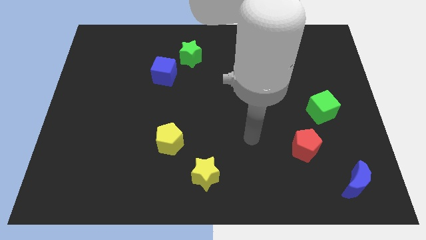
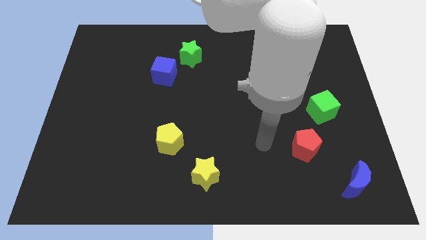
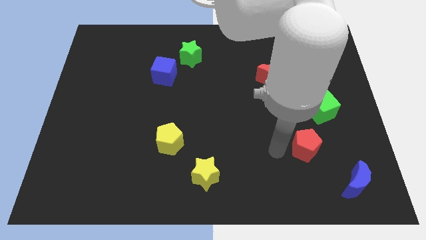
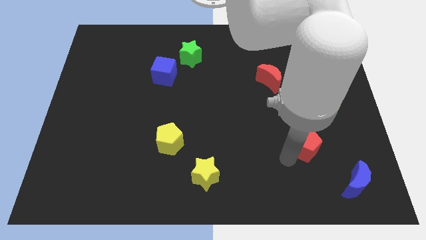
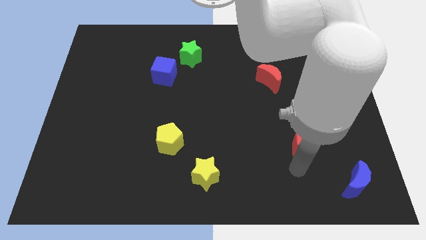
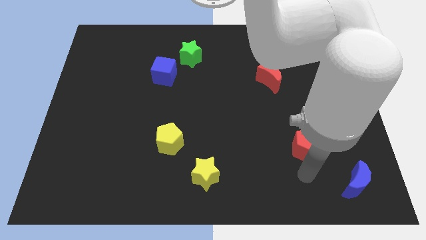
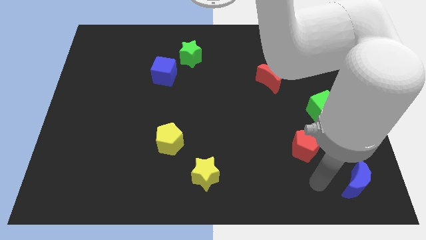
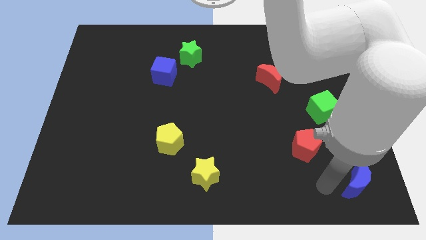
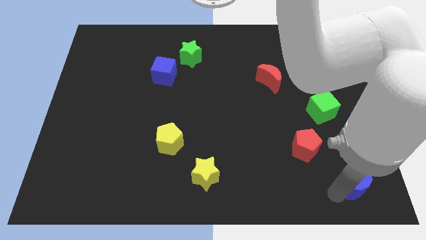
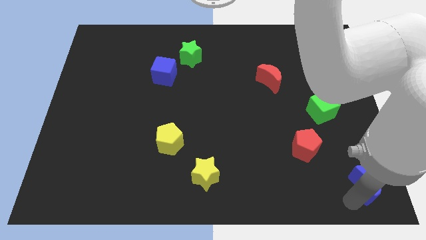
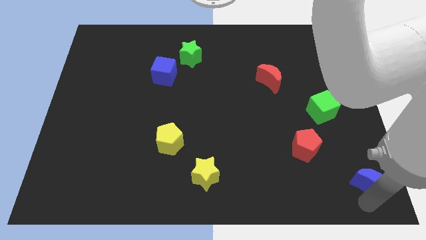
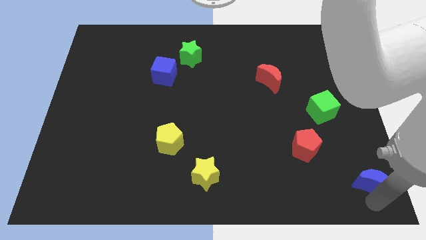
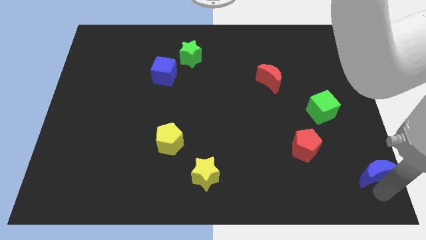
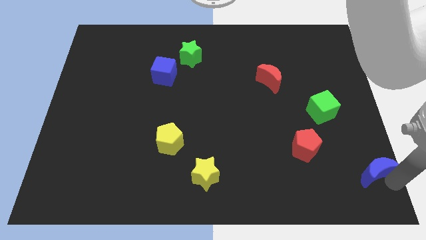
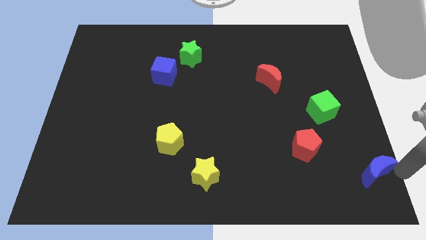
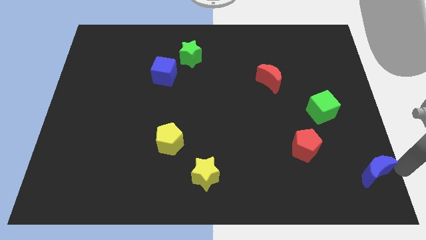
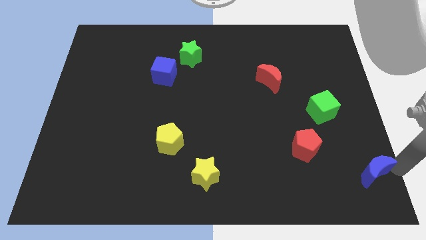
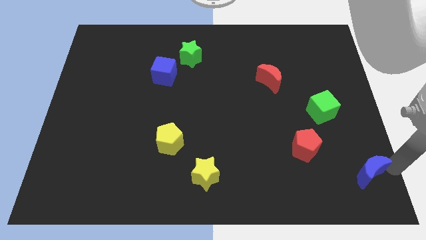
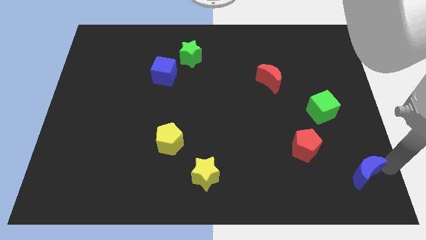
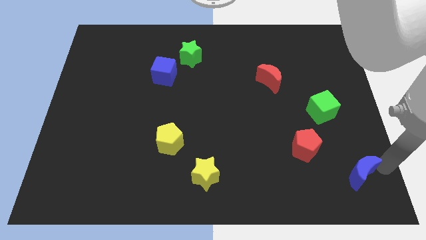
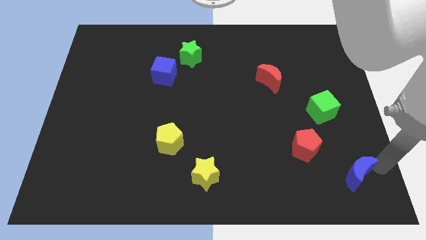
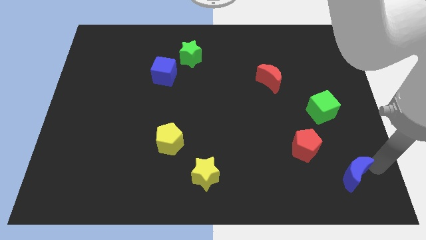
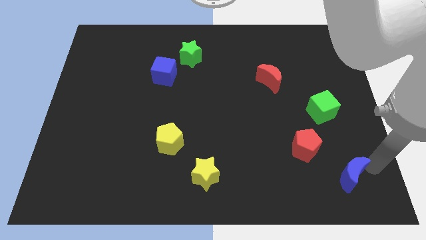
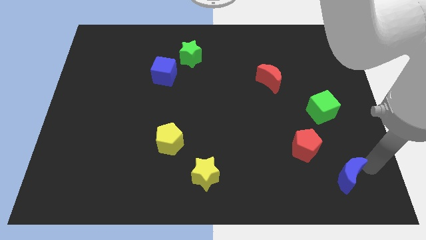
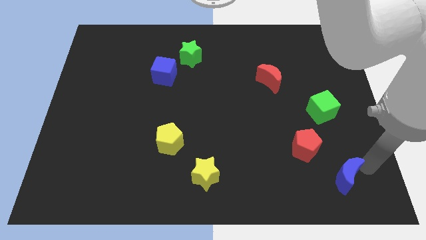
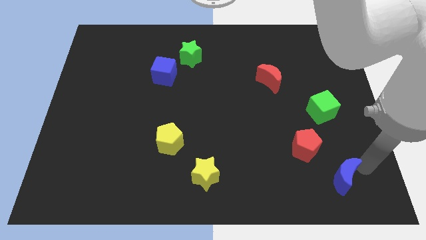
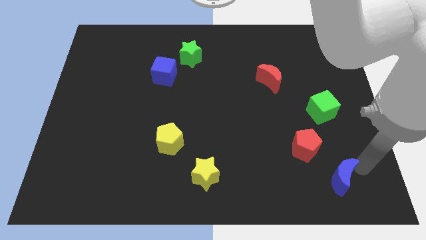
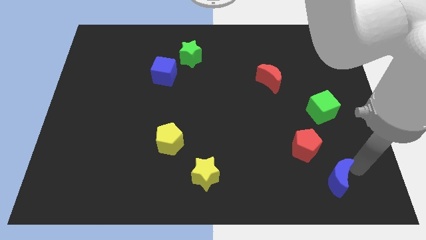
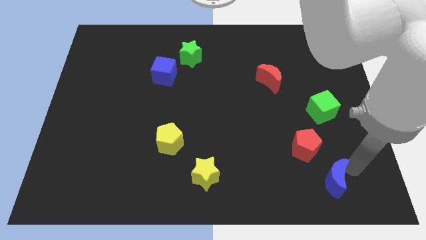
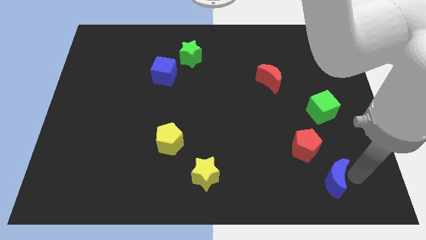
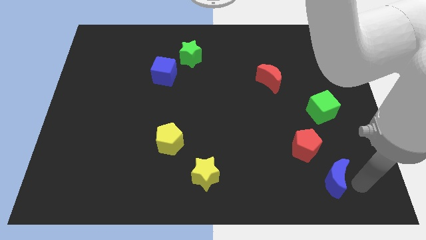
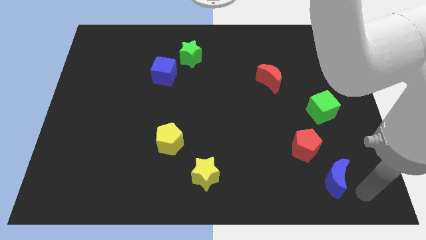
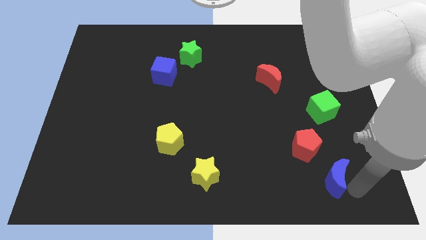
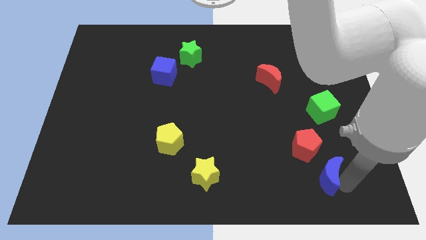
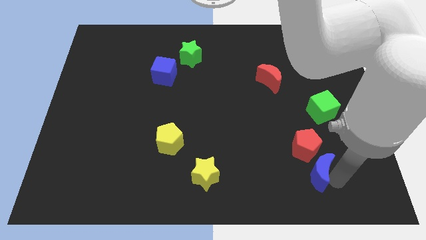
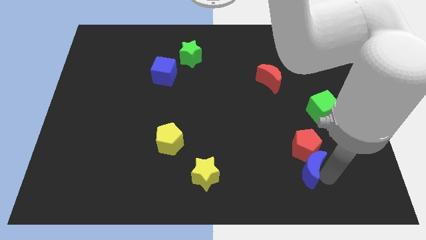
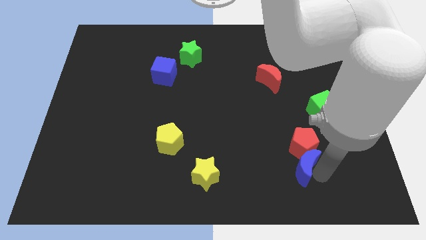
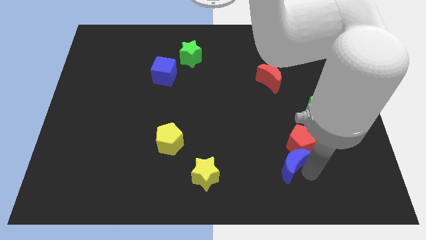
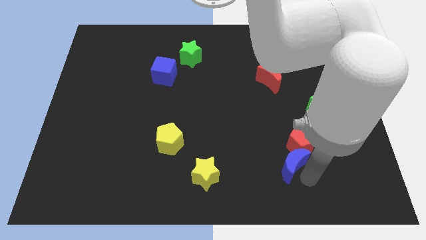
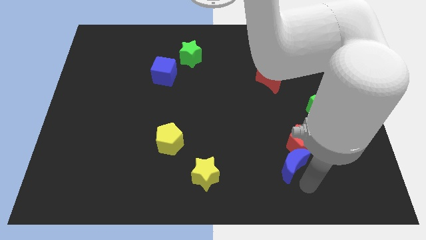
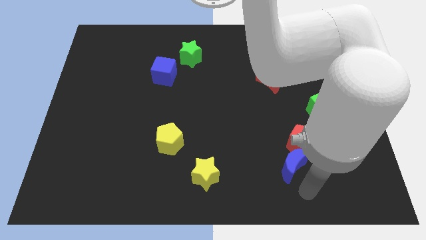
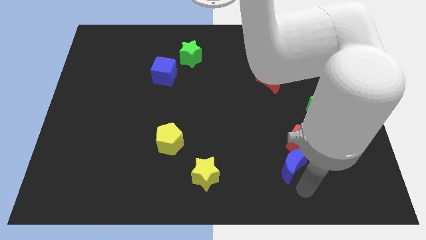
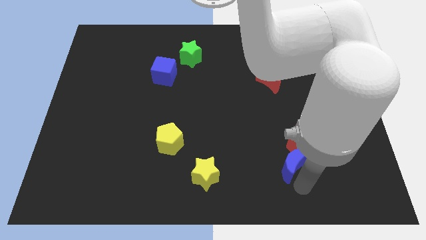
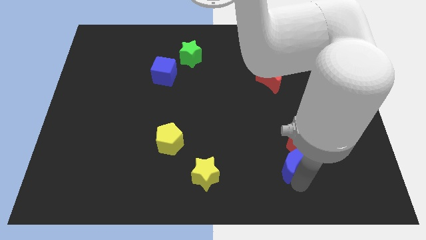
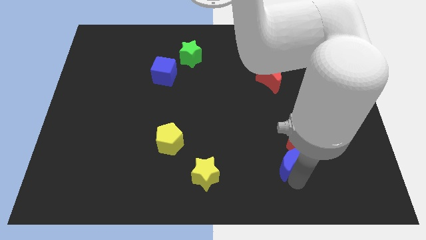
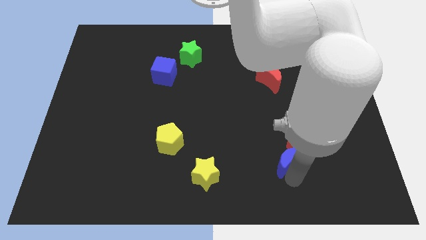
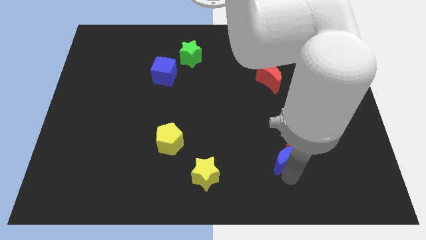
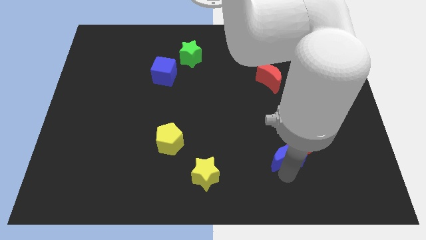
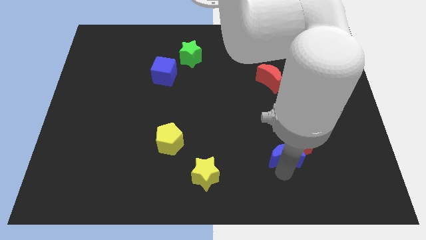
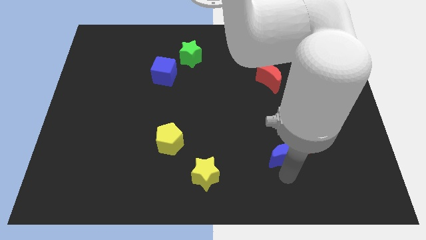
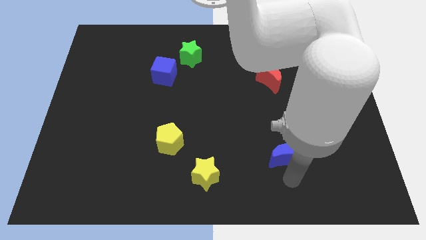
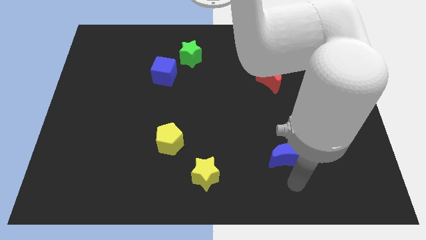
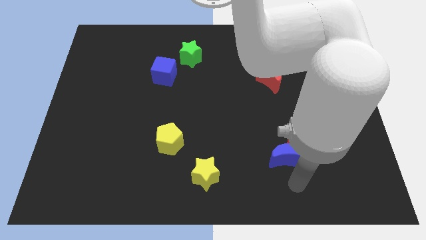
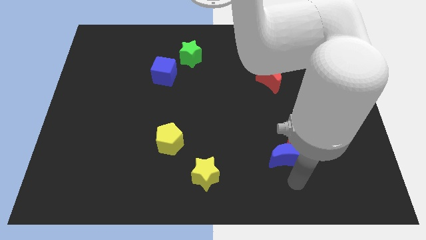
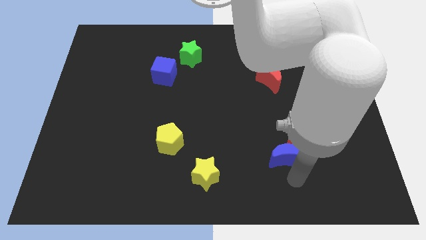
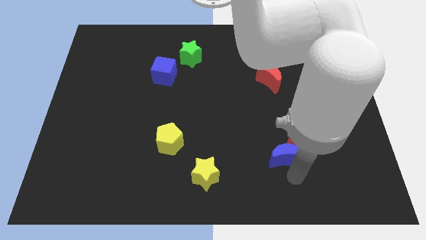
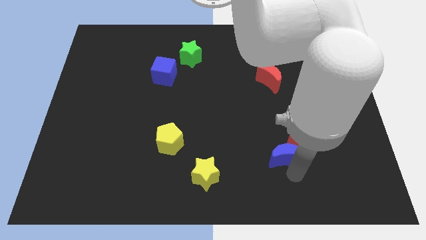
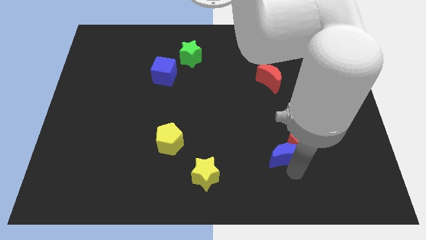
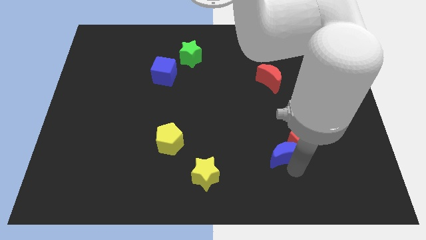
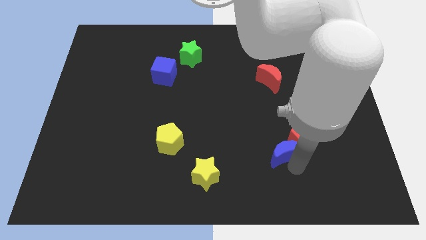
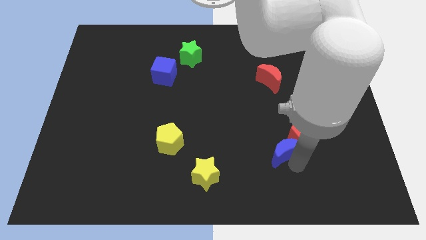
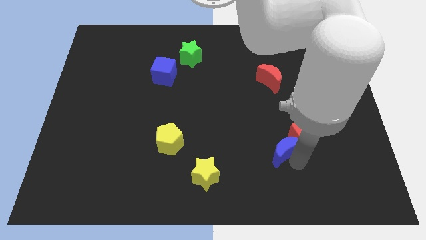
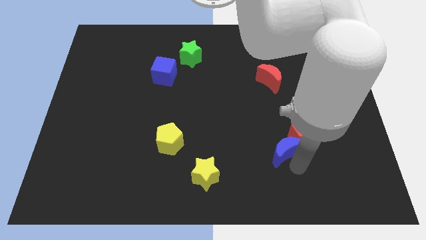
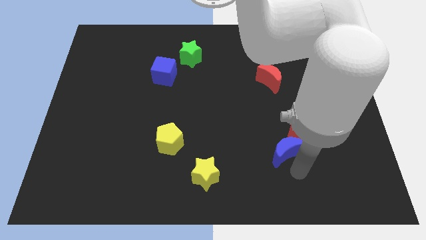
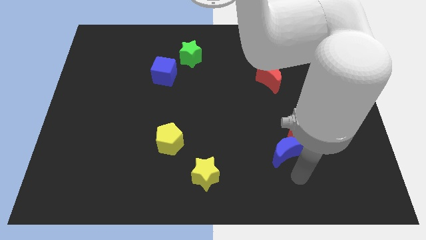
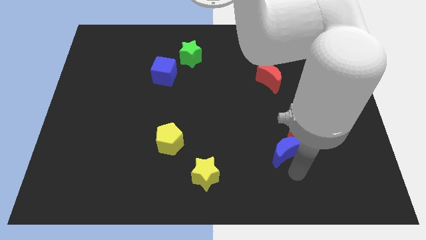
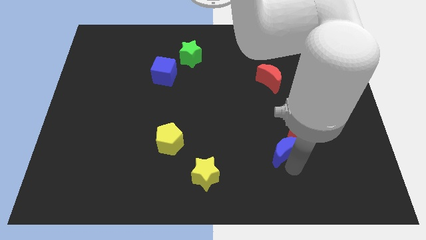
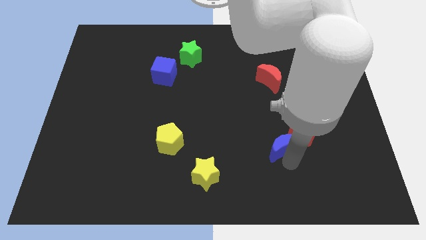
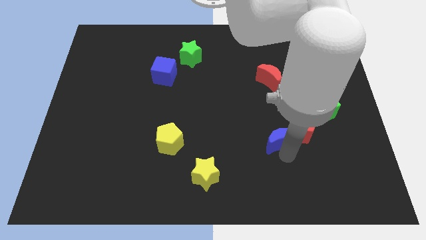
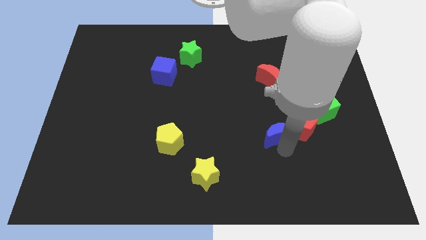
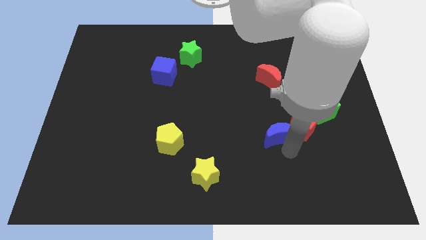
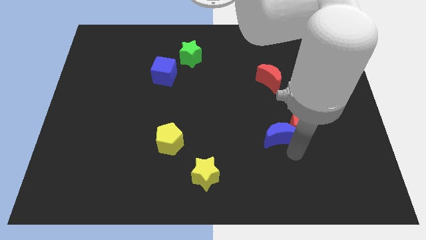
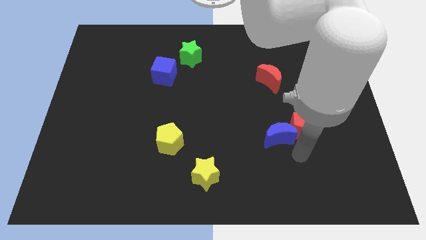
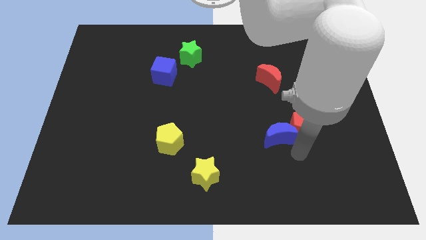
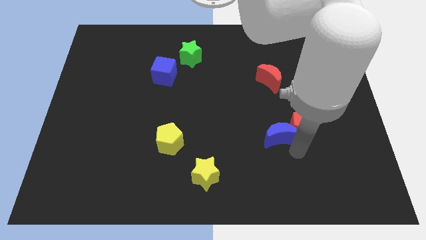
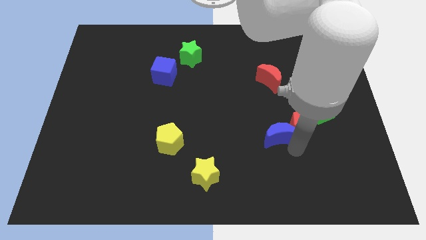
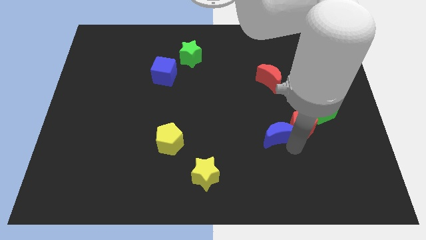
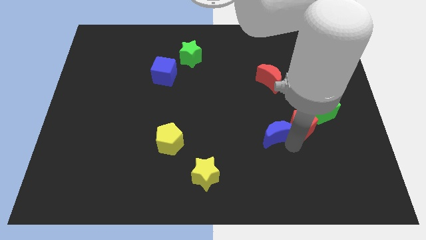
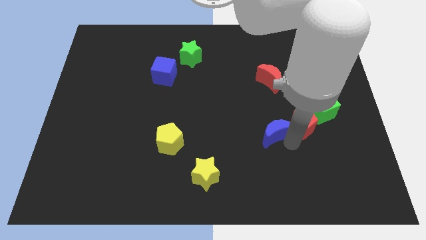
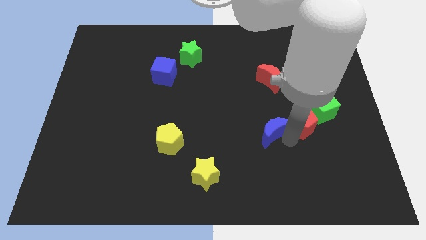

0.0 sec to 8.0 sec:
slide the blue moon up and left diagonally
